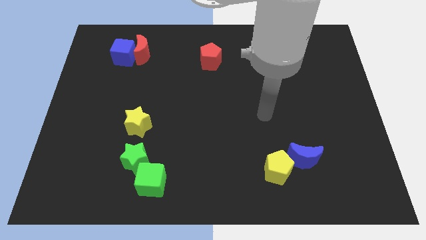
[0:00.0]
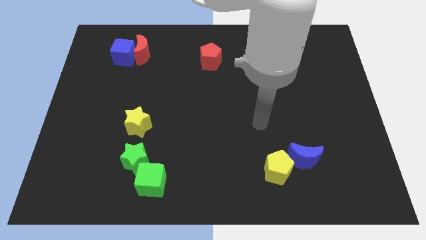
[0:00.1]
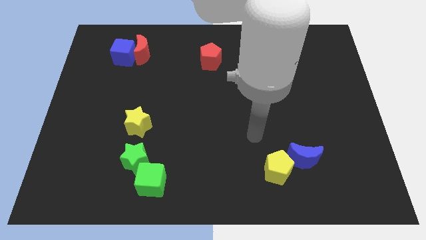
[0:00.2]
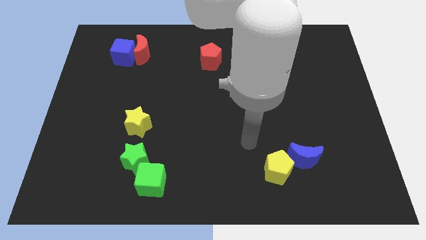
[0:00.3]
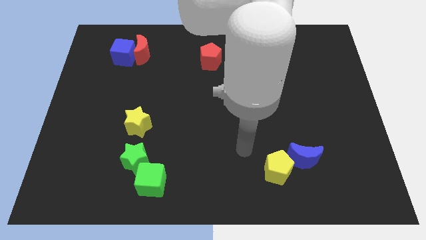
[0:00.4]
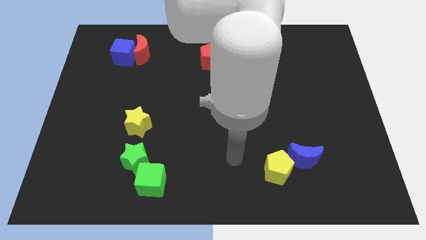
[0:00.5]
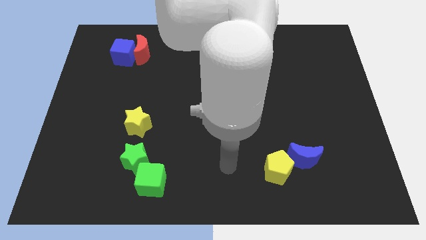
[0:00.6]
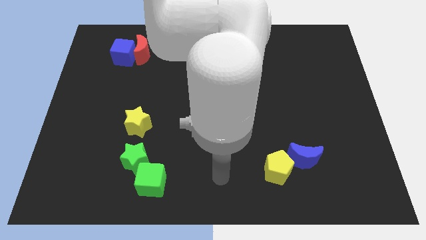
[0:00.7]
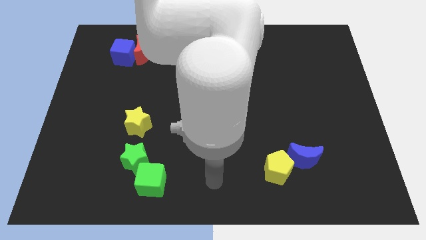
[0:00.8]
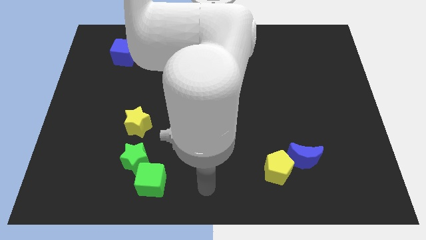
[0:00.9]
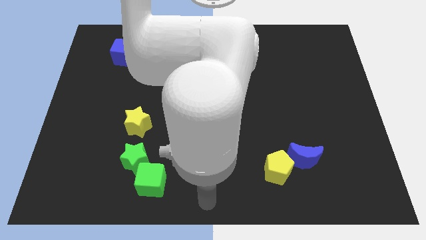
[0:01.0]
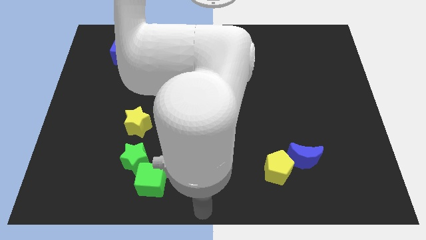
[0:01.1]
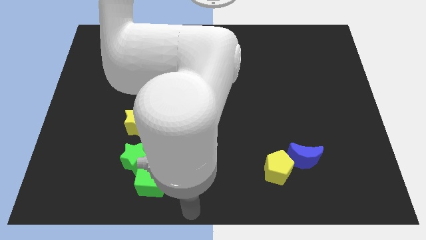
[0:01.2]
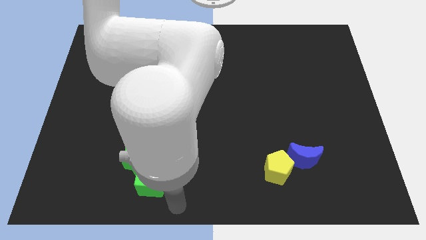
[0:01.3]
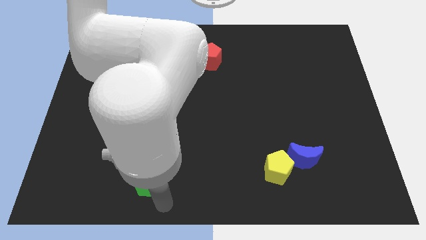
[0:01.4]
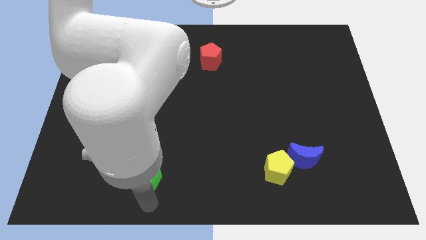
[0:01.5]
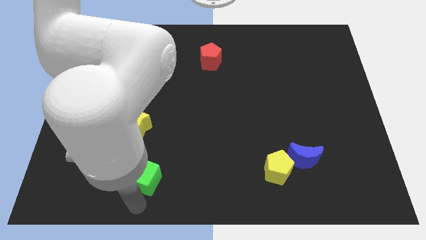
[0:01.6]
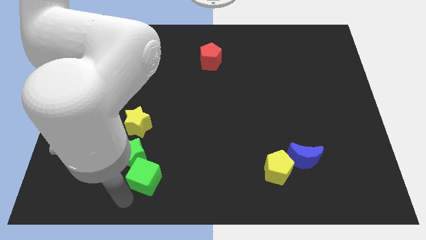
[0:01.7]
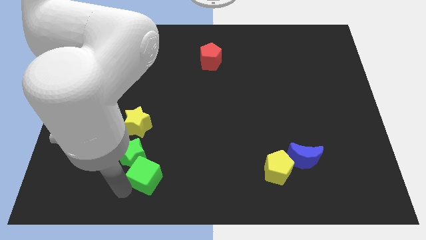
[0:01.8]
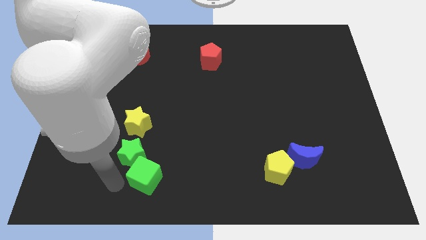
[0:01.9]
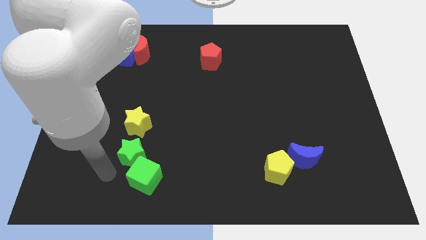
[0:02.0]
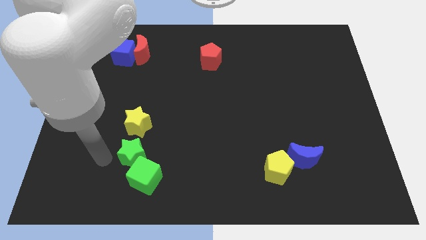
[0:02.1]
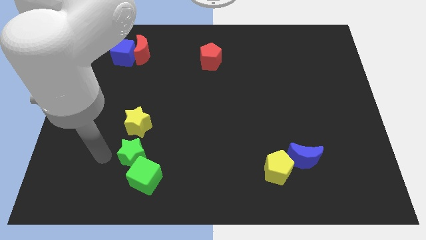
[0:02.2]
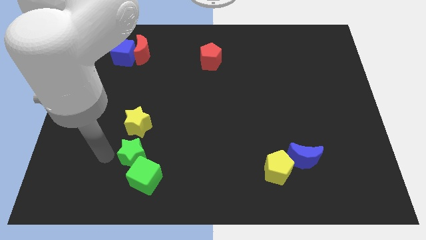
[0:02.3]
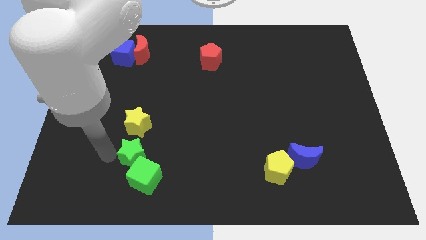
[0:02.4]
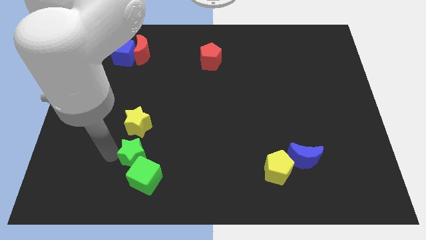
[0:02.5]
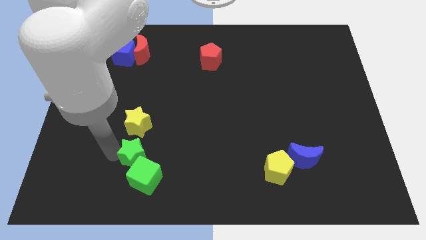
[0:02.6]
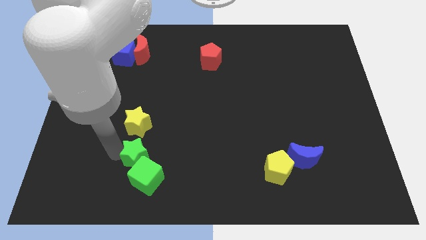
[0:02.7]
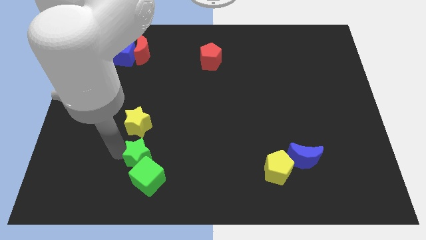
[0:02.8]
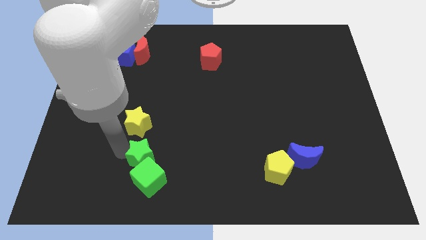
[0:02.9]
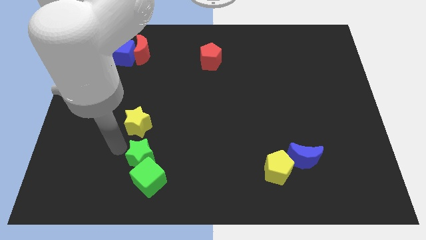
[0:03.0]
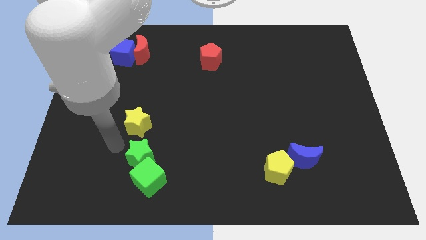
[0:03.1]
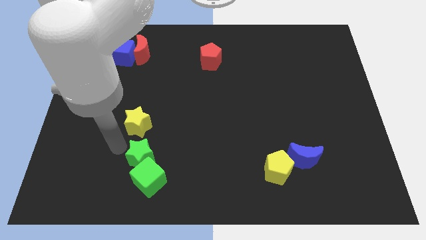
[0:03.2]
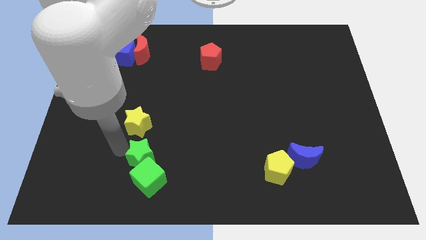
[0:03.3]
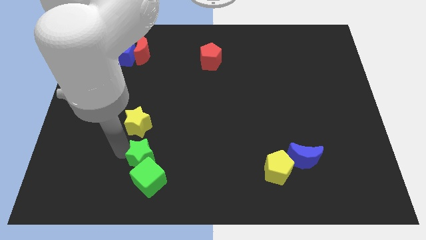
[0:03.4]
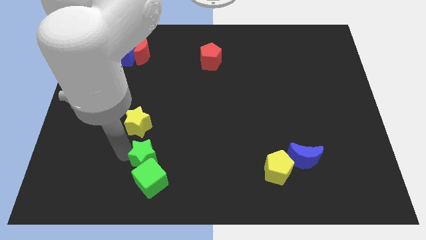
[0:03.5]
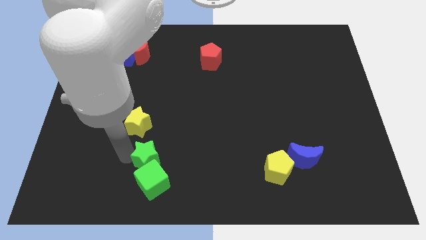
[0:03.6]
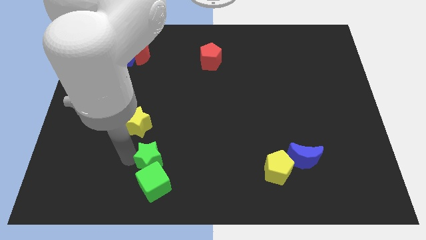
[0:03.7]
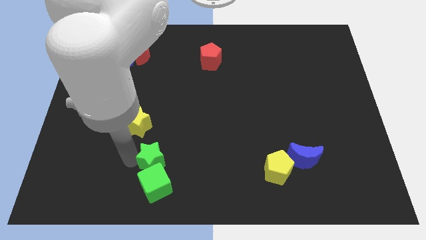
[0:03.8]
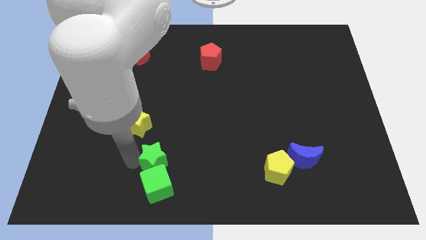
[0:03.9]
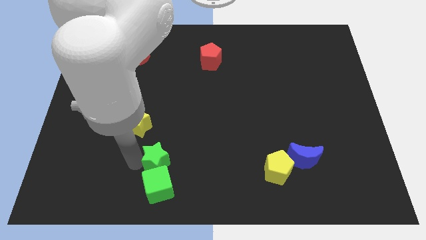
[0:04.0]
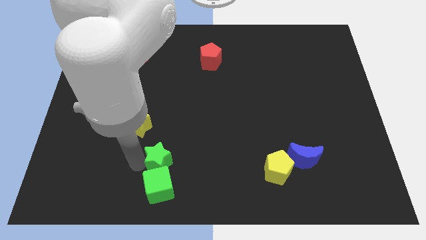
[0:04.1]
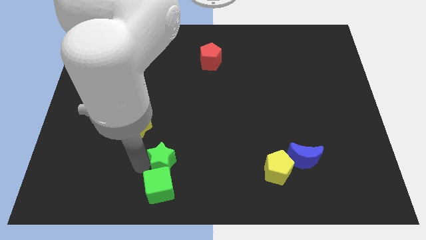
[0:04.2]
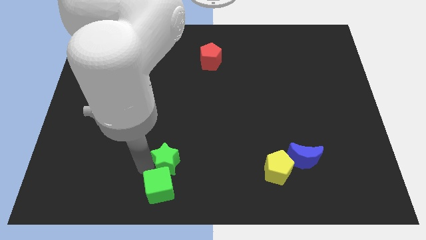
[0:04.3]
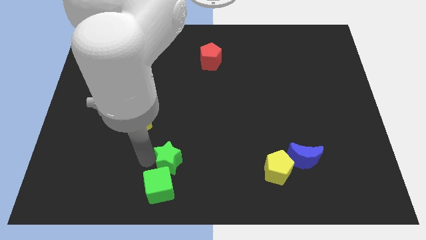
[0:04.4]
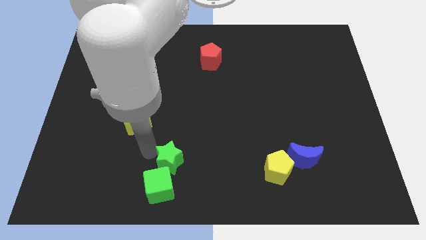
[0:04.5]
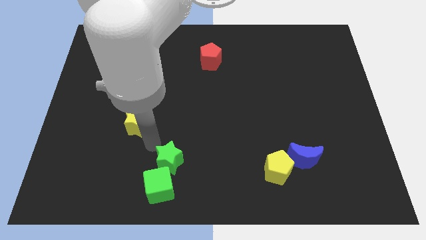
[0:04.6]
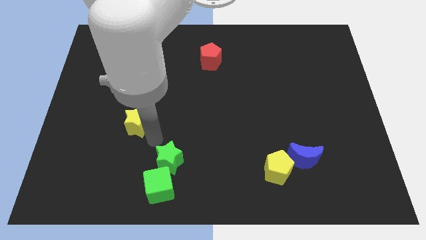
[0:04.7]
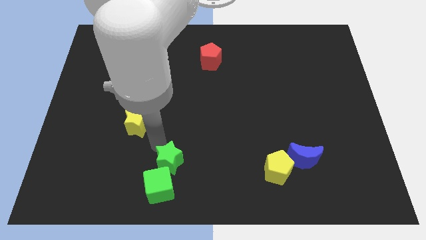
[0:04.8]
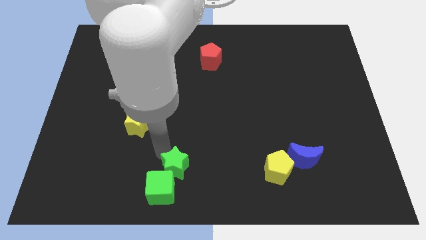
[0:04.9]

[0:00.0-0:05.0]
slide the green star to the bottom side
